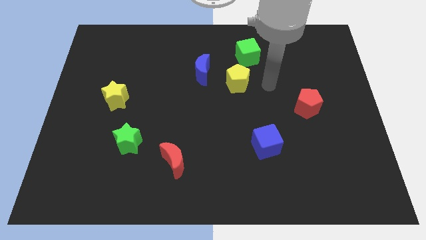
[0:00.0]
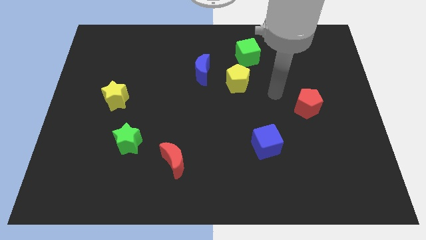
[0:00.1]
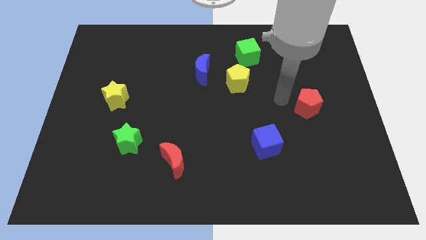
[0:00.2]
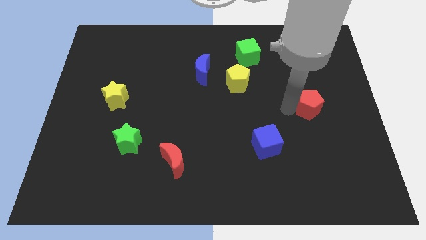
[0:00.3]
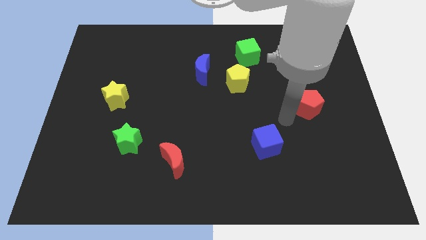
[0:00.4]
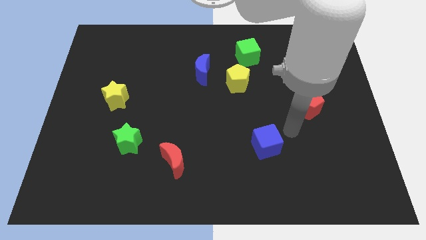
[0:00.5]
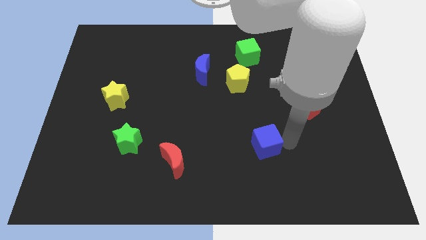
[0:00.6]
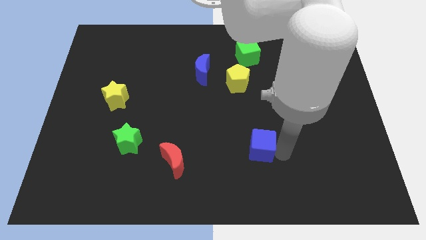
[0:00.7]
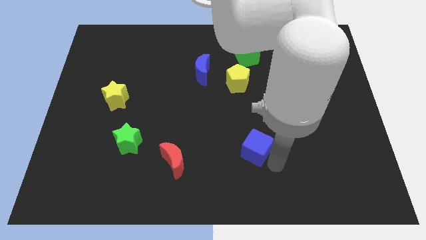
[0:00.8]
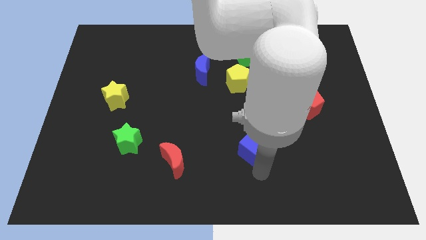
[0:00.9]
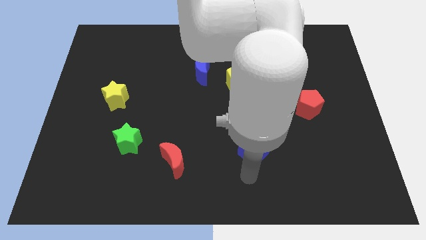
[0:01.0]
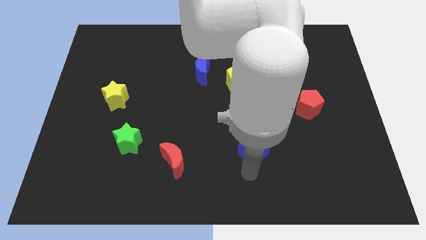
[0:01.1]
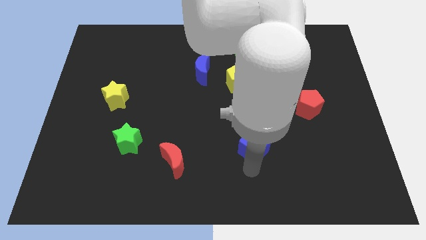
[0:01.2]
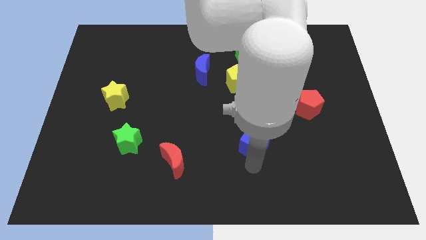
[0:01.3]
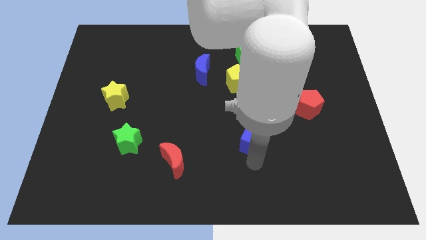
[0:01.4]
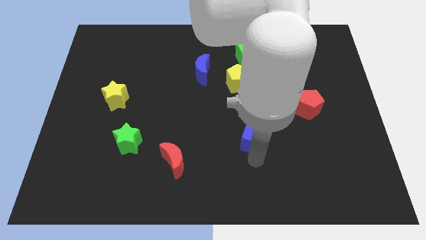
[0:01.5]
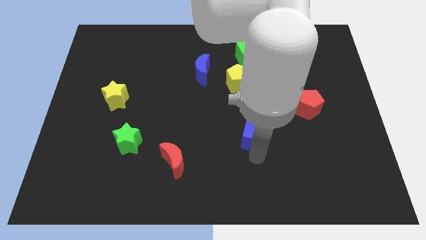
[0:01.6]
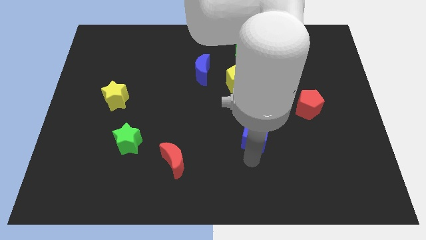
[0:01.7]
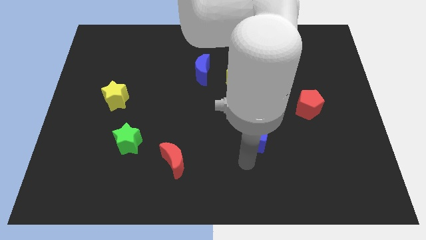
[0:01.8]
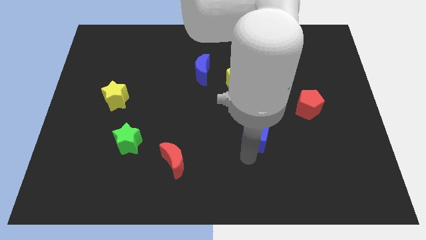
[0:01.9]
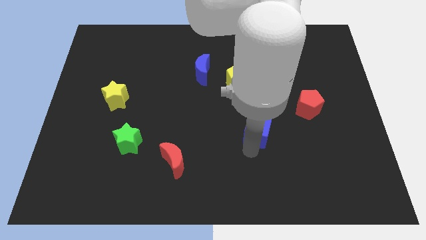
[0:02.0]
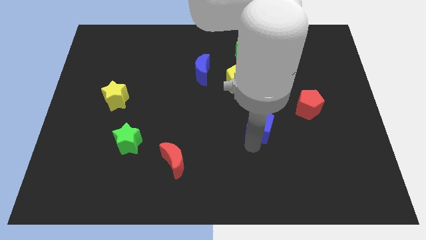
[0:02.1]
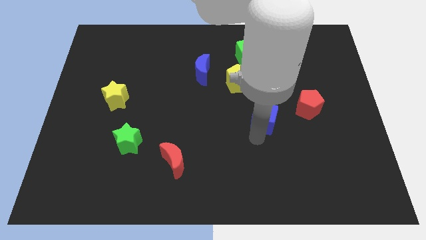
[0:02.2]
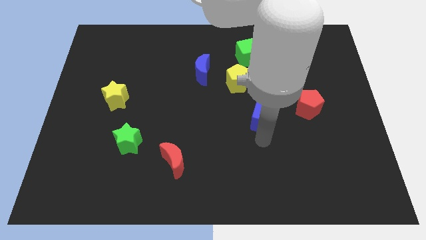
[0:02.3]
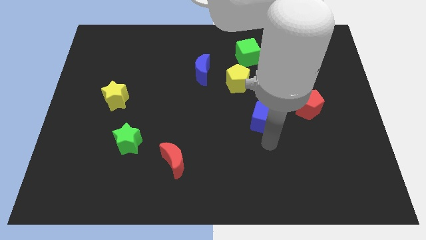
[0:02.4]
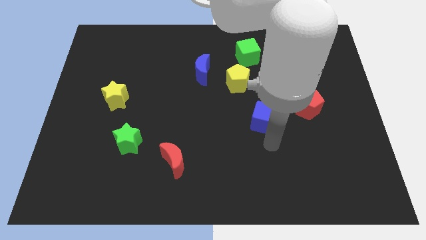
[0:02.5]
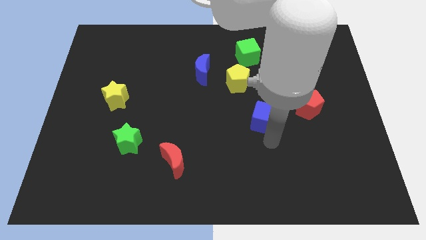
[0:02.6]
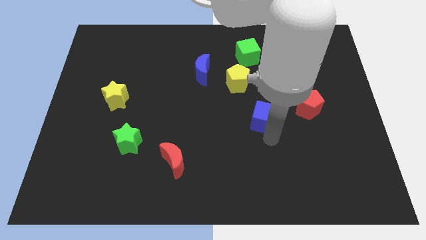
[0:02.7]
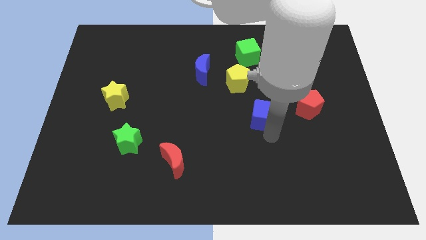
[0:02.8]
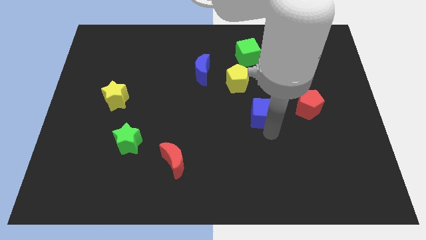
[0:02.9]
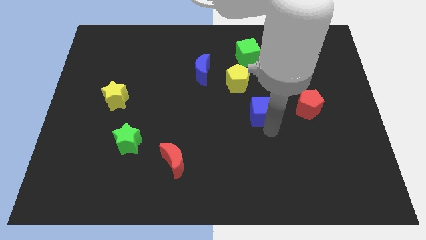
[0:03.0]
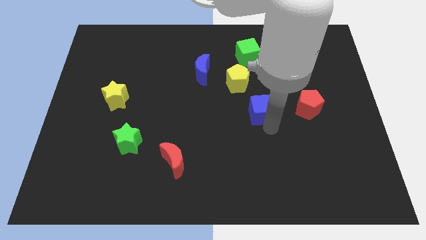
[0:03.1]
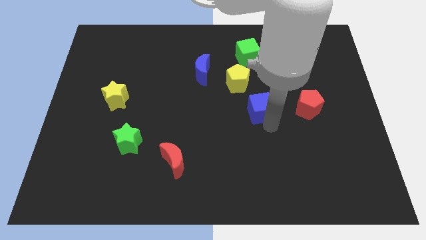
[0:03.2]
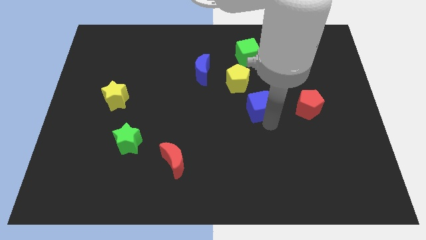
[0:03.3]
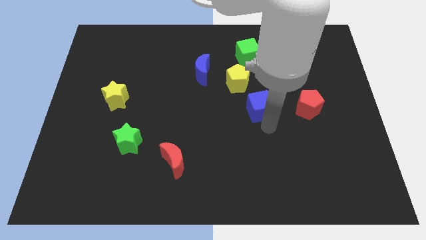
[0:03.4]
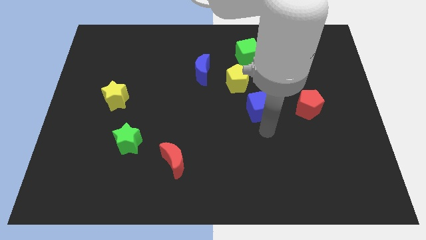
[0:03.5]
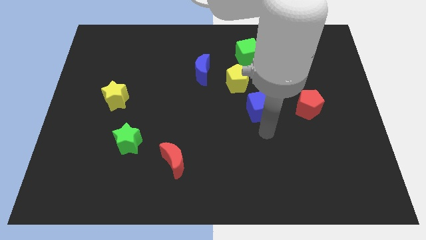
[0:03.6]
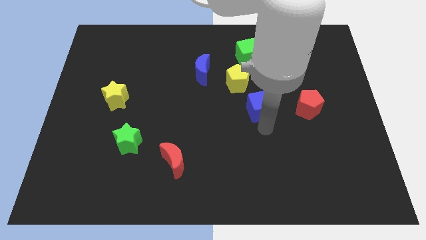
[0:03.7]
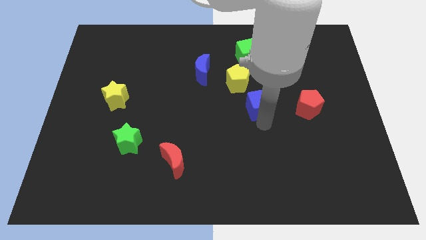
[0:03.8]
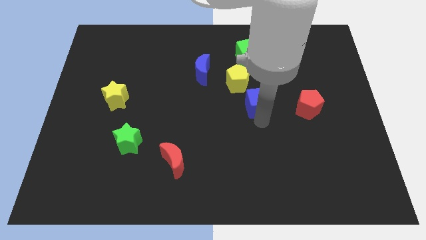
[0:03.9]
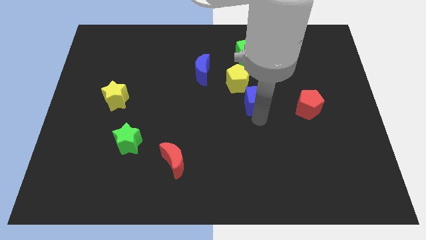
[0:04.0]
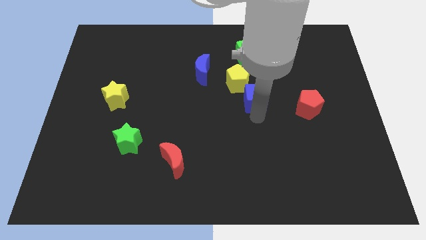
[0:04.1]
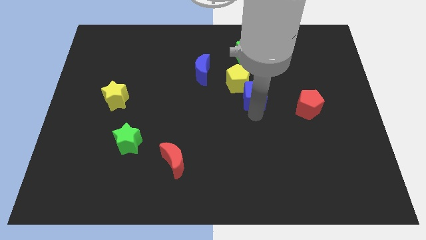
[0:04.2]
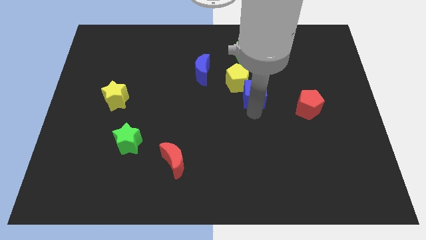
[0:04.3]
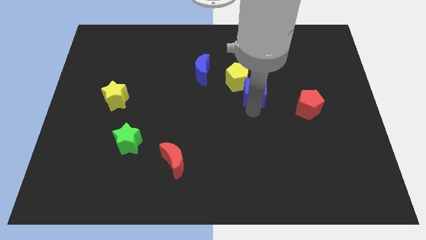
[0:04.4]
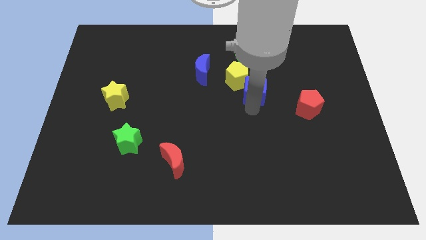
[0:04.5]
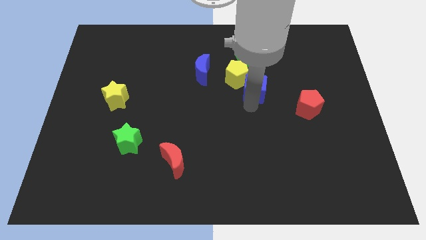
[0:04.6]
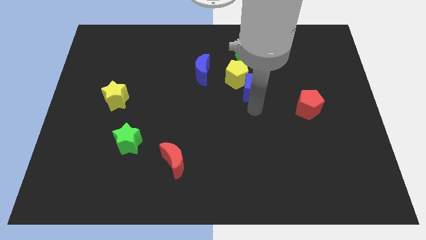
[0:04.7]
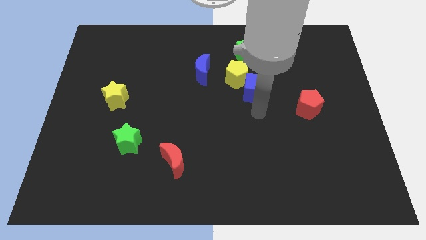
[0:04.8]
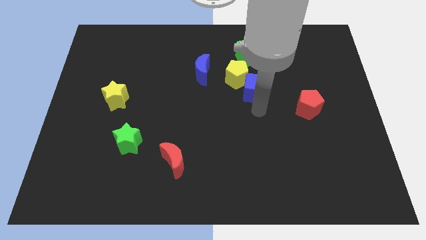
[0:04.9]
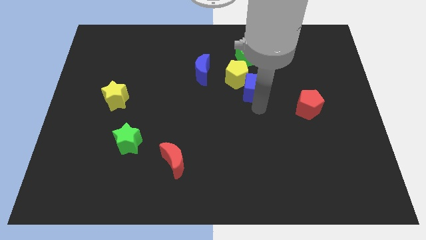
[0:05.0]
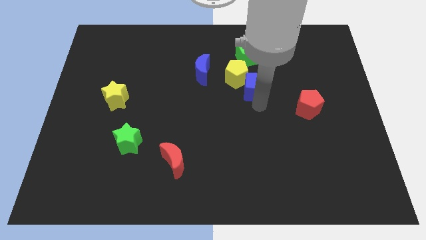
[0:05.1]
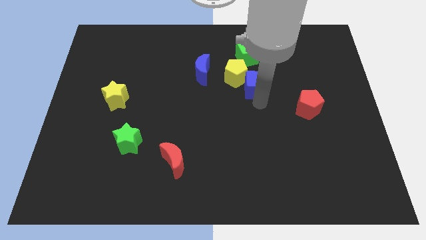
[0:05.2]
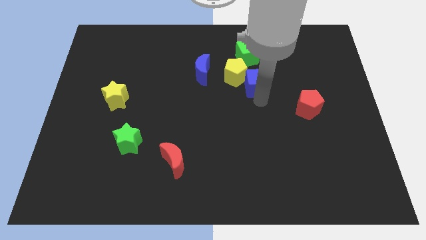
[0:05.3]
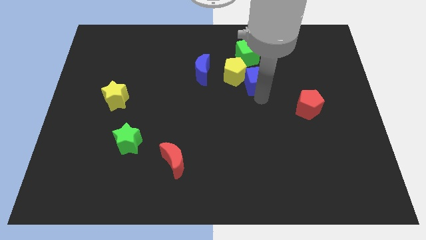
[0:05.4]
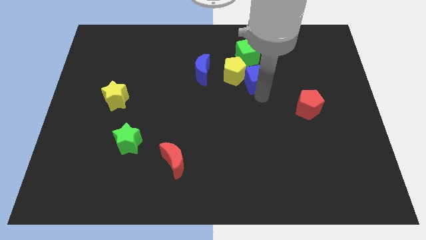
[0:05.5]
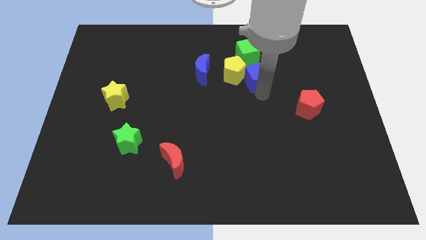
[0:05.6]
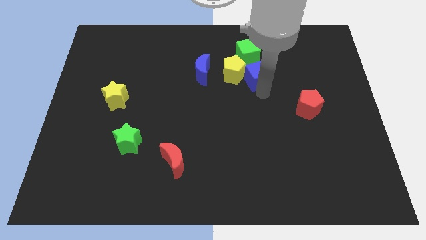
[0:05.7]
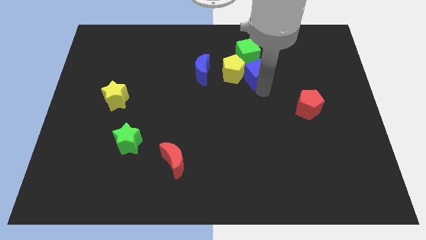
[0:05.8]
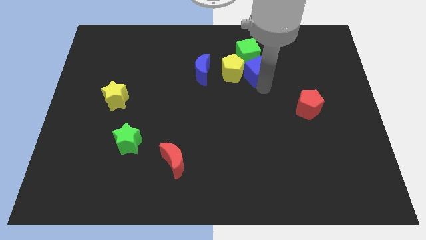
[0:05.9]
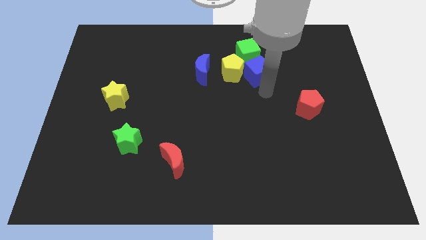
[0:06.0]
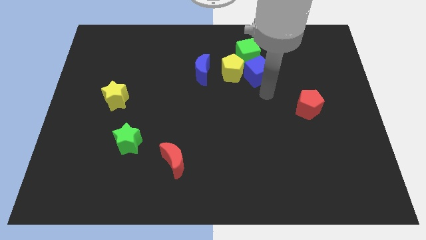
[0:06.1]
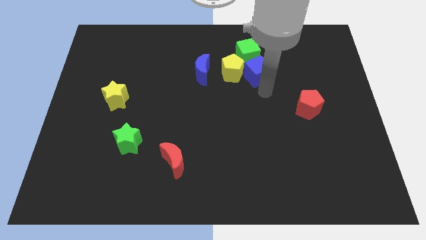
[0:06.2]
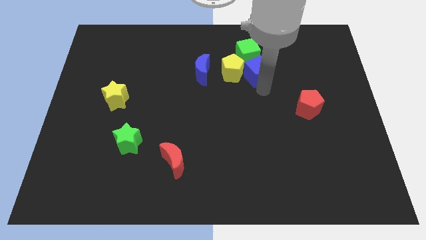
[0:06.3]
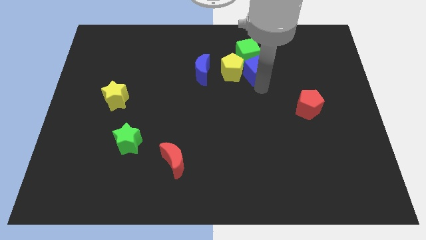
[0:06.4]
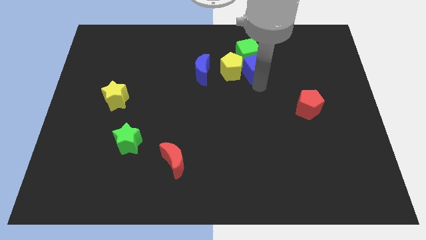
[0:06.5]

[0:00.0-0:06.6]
slide the blue cube next to the green cube
